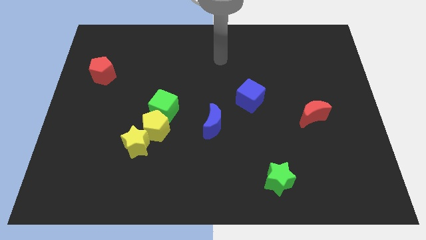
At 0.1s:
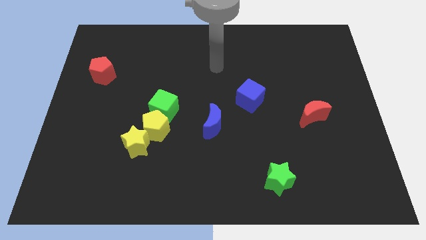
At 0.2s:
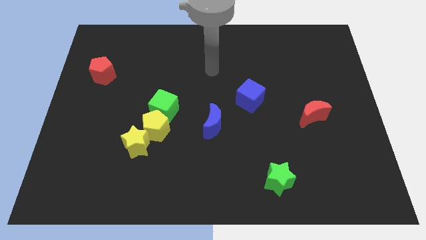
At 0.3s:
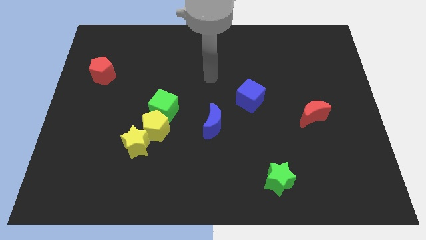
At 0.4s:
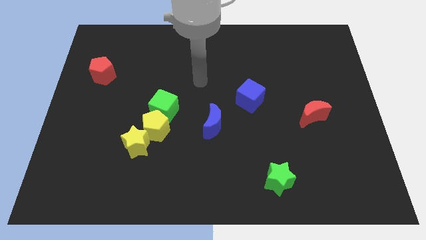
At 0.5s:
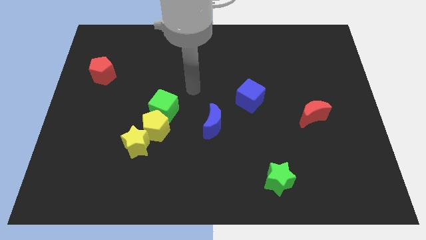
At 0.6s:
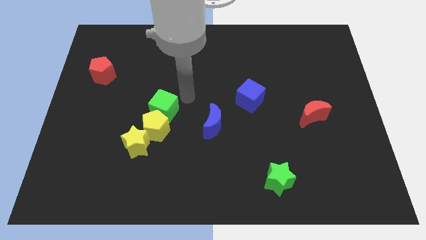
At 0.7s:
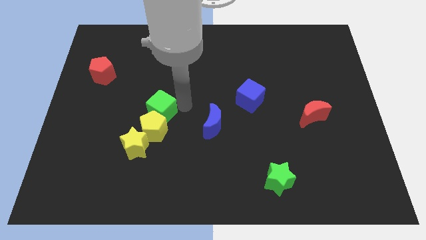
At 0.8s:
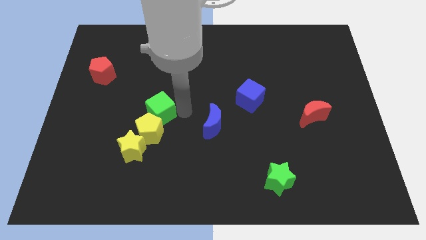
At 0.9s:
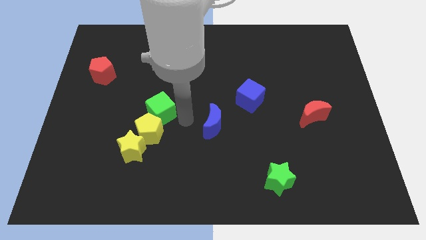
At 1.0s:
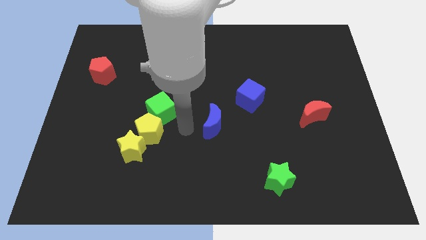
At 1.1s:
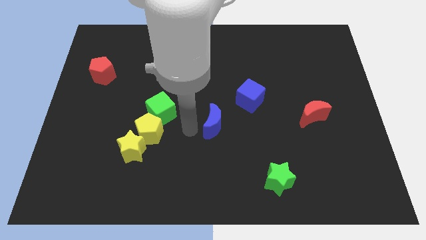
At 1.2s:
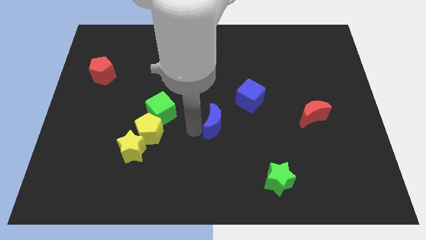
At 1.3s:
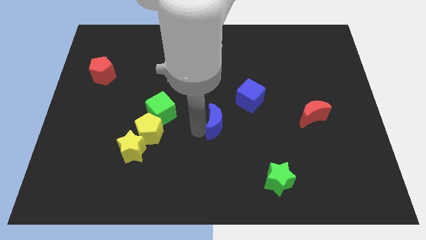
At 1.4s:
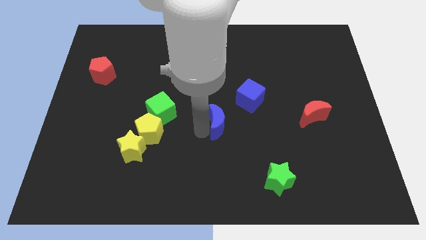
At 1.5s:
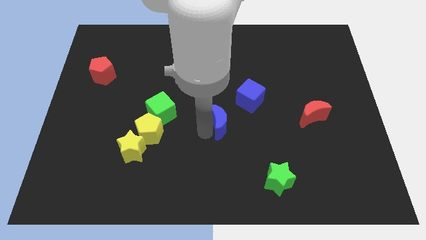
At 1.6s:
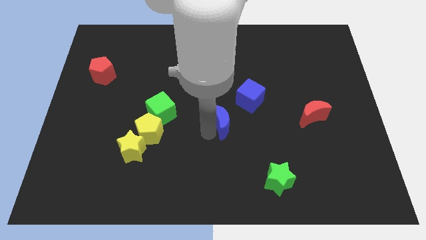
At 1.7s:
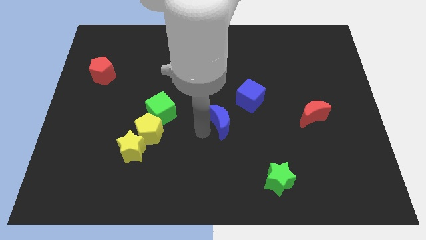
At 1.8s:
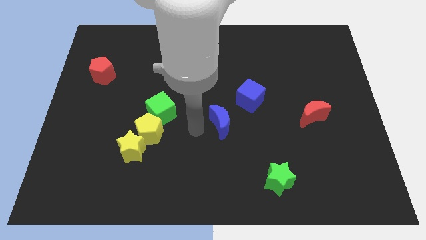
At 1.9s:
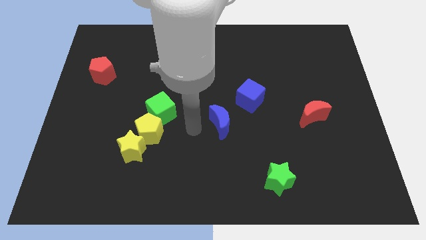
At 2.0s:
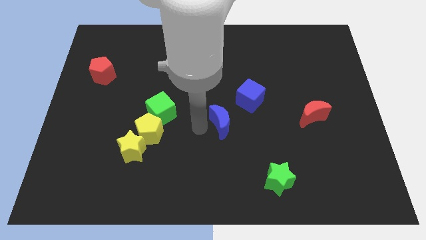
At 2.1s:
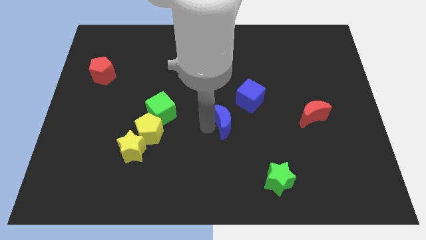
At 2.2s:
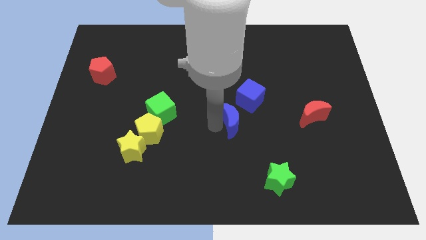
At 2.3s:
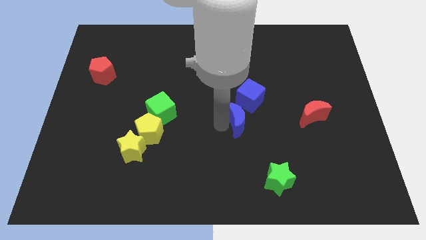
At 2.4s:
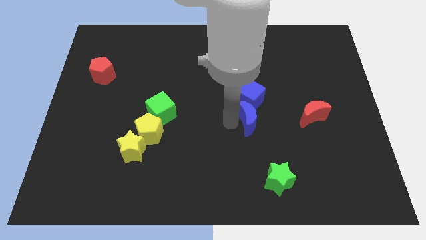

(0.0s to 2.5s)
push the blue moon right a little

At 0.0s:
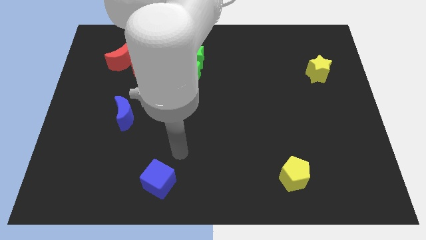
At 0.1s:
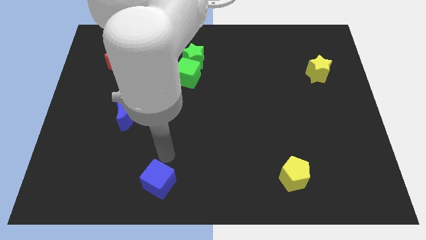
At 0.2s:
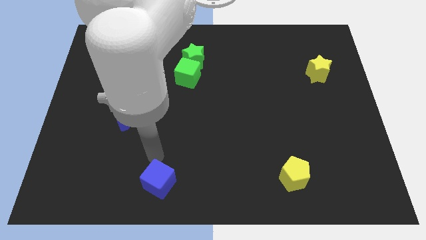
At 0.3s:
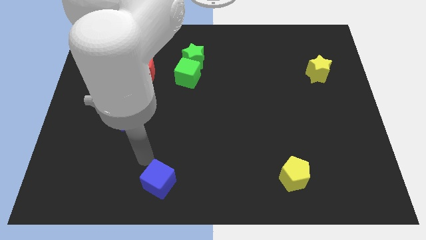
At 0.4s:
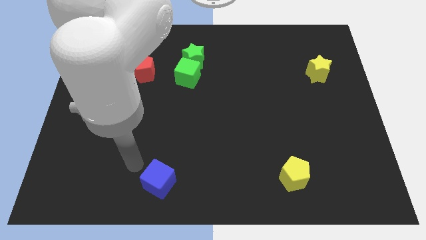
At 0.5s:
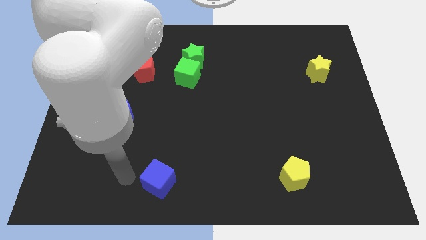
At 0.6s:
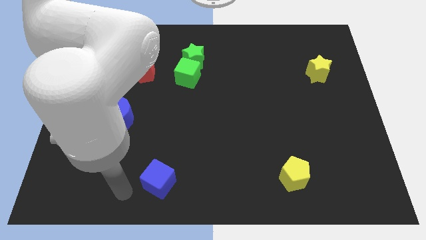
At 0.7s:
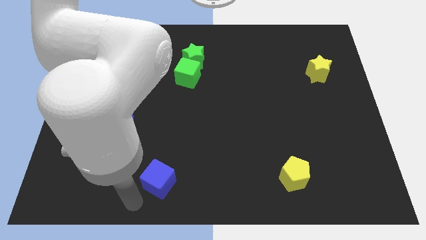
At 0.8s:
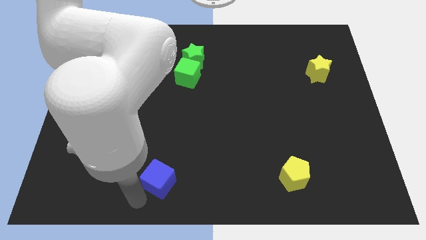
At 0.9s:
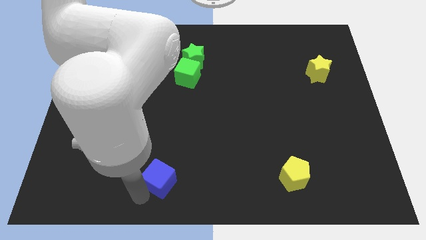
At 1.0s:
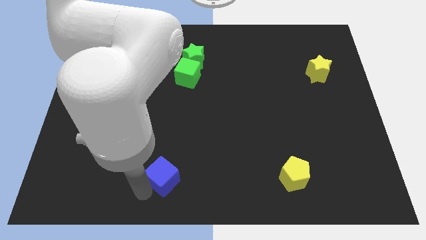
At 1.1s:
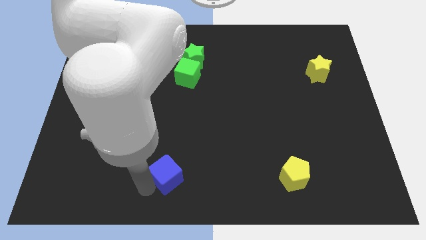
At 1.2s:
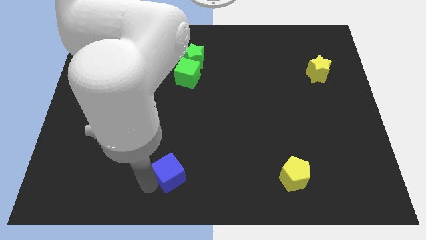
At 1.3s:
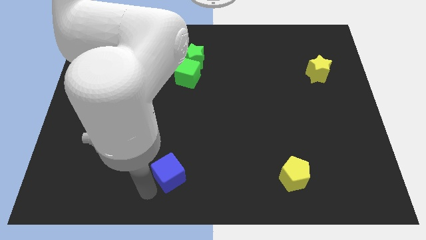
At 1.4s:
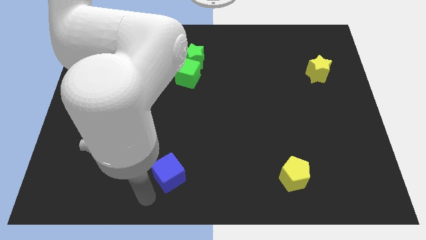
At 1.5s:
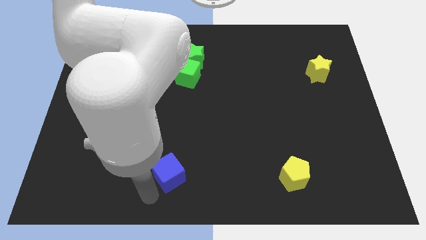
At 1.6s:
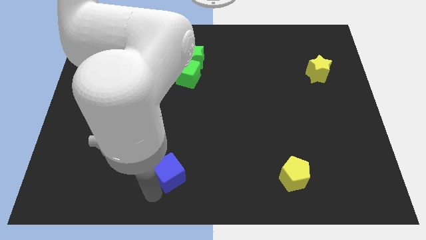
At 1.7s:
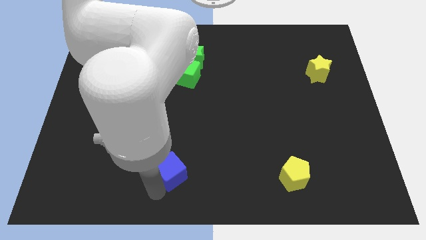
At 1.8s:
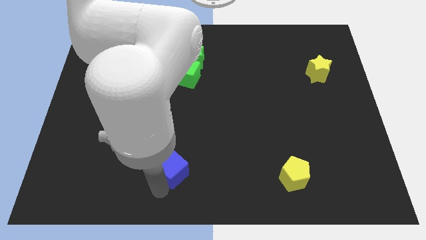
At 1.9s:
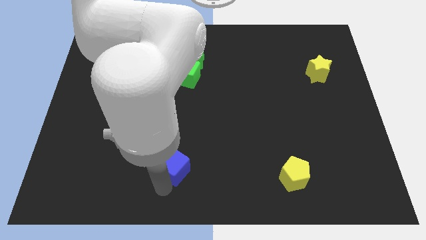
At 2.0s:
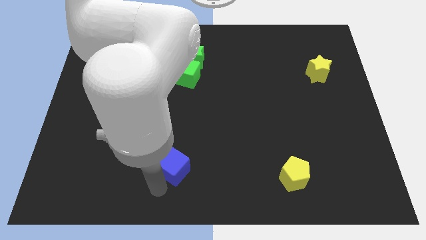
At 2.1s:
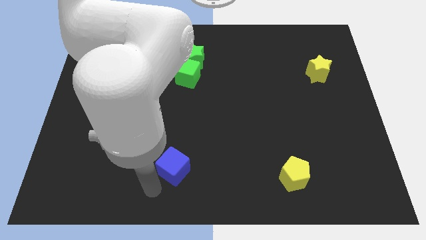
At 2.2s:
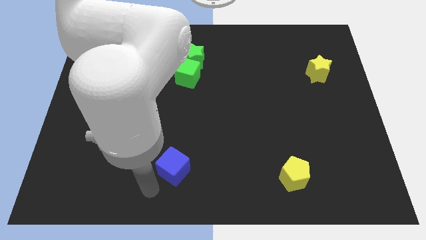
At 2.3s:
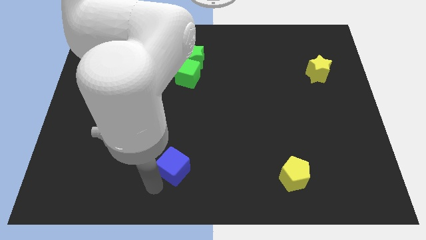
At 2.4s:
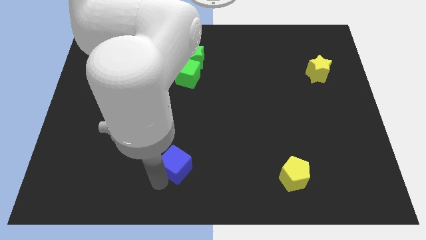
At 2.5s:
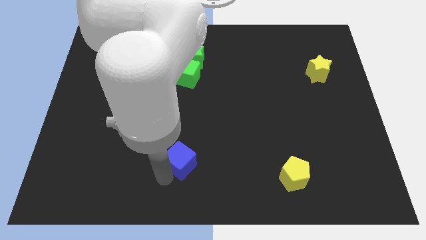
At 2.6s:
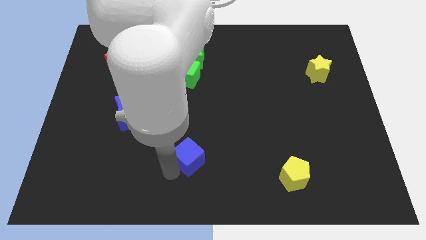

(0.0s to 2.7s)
slightly move the blue cube diagonally up and to the right

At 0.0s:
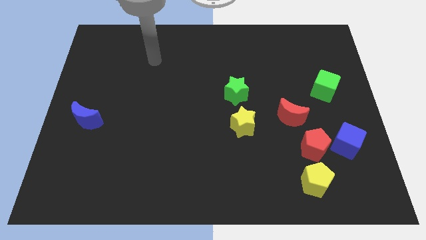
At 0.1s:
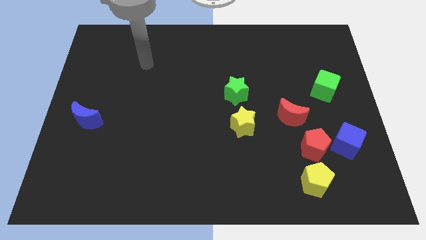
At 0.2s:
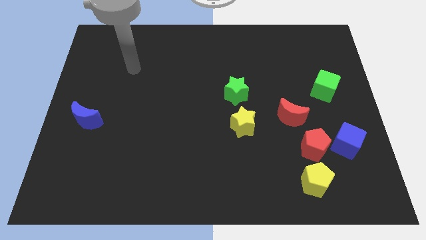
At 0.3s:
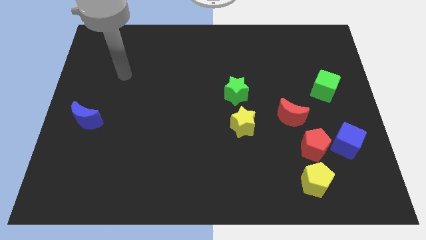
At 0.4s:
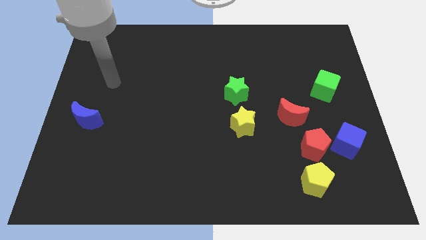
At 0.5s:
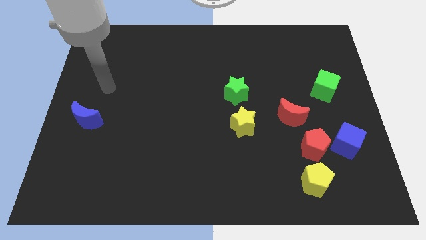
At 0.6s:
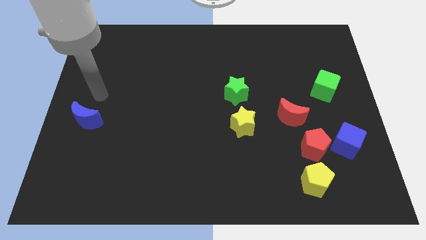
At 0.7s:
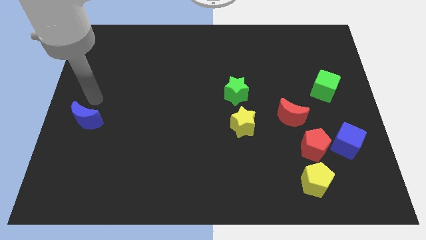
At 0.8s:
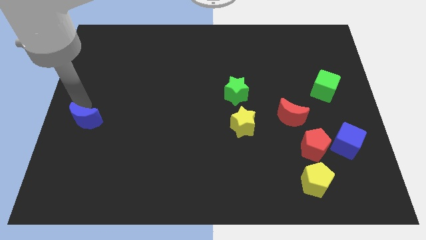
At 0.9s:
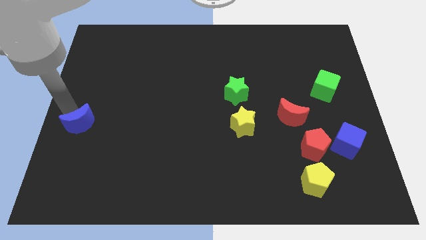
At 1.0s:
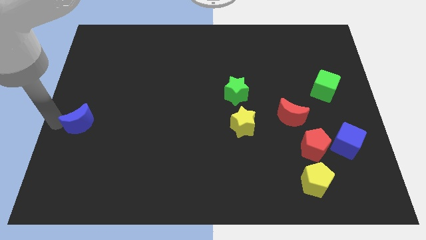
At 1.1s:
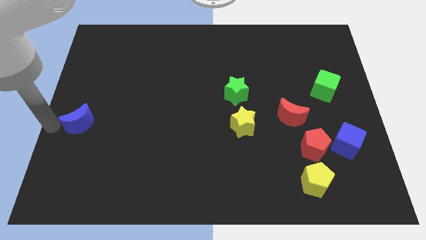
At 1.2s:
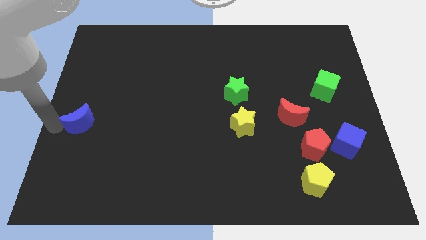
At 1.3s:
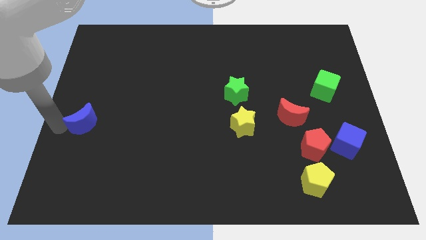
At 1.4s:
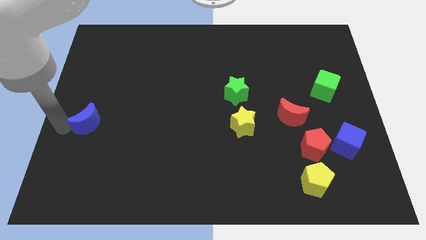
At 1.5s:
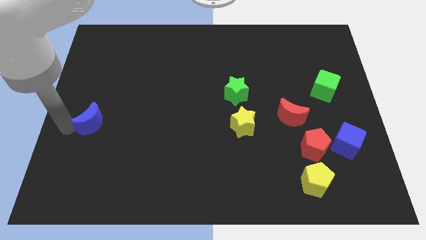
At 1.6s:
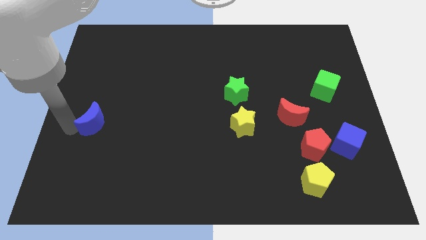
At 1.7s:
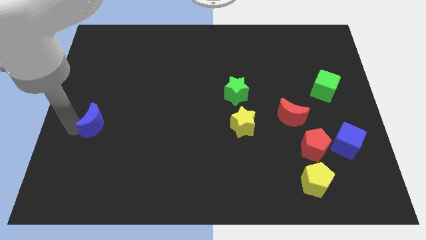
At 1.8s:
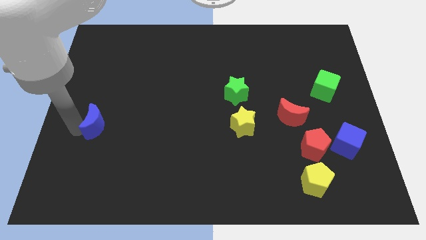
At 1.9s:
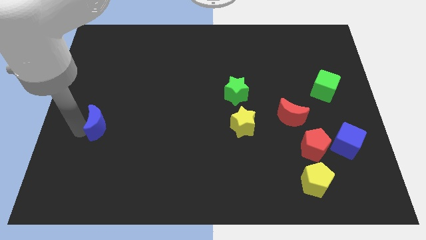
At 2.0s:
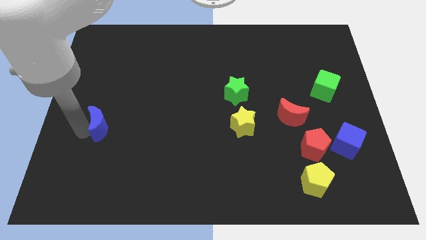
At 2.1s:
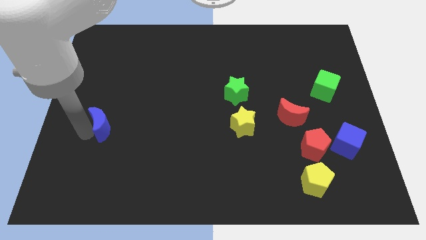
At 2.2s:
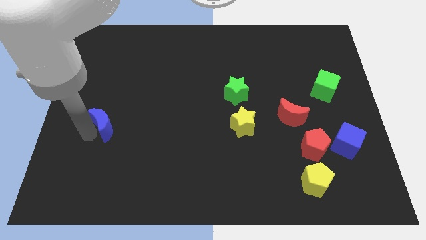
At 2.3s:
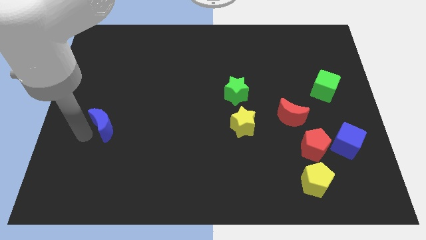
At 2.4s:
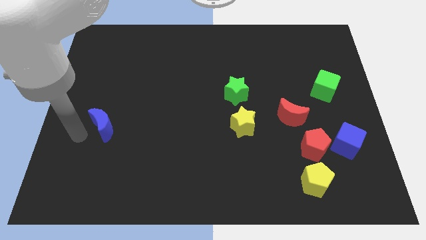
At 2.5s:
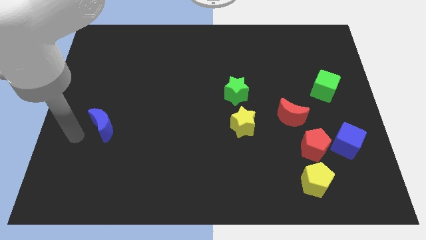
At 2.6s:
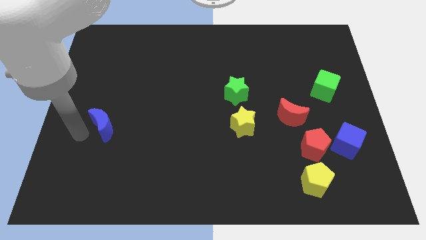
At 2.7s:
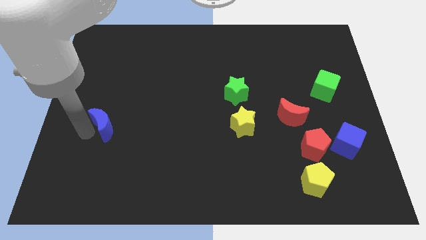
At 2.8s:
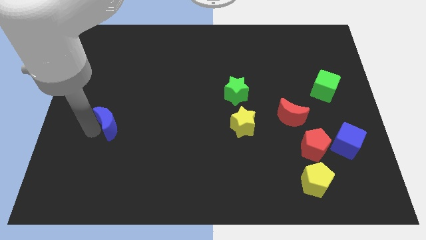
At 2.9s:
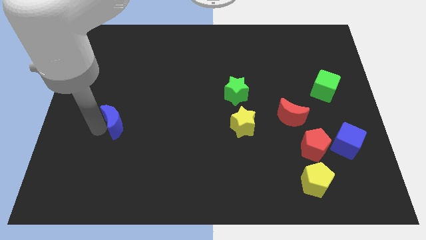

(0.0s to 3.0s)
slightly move the blue moon to the right
